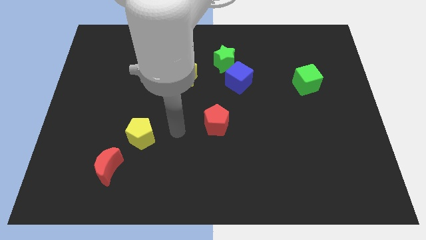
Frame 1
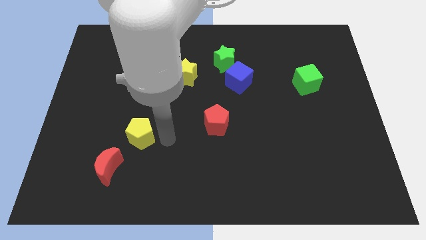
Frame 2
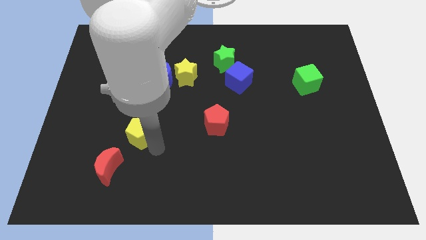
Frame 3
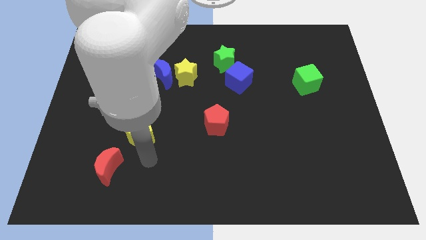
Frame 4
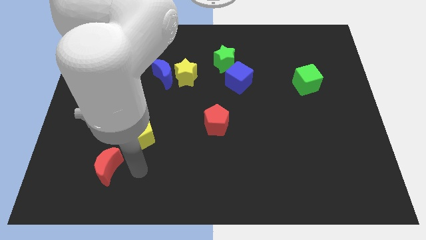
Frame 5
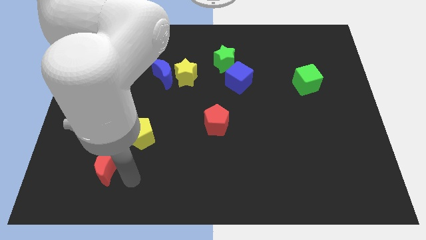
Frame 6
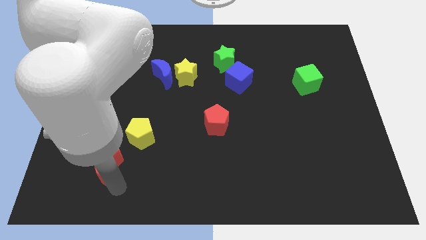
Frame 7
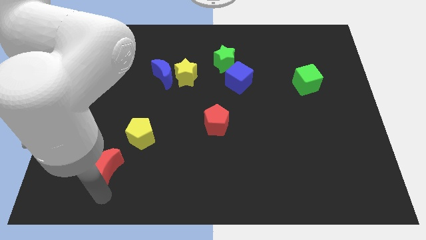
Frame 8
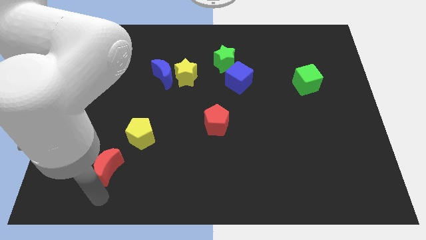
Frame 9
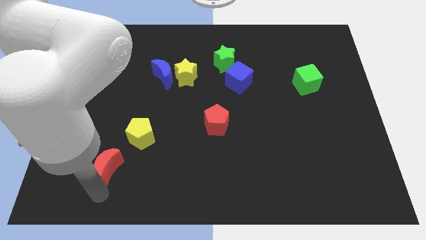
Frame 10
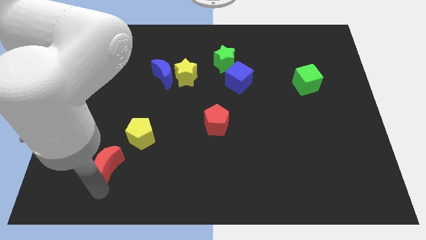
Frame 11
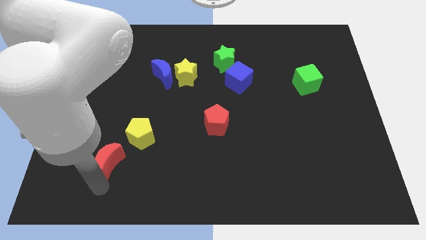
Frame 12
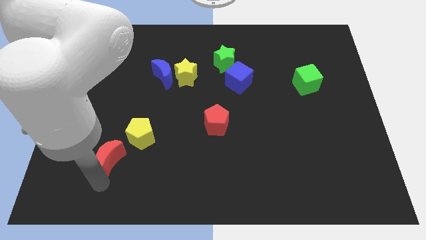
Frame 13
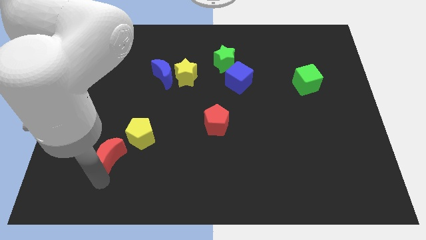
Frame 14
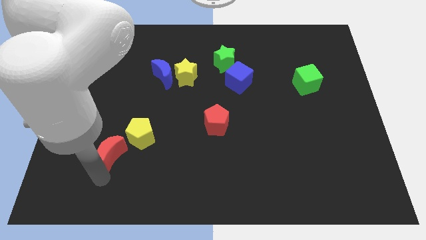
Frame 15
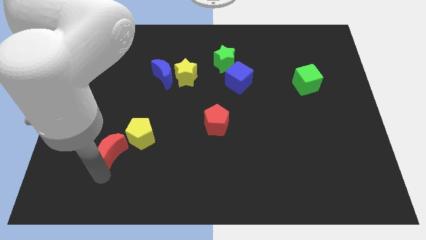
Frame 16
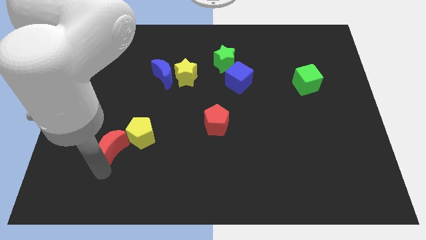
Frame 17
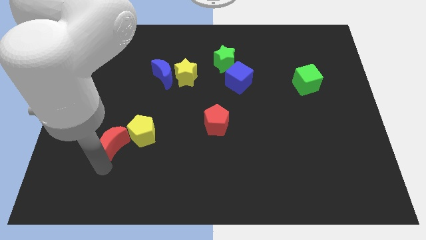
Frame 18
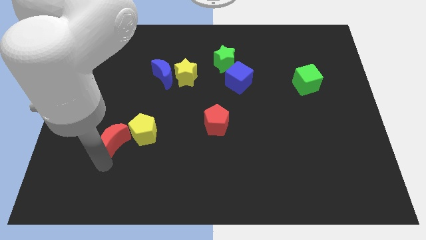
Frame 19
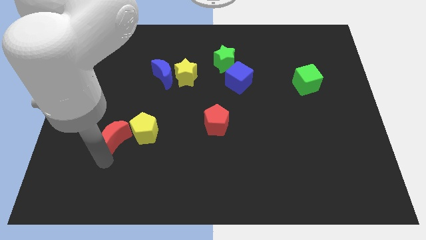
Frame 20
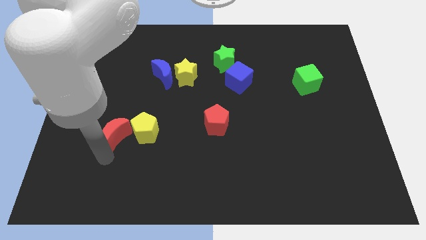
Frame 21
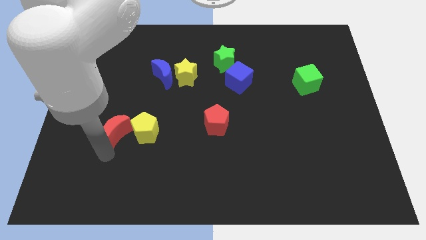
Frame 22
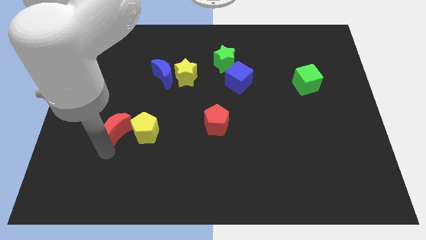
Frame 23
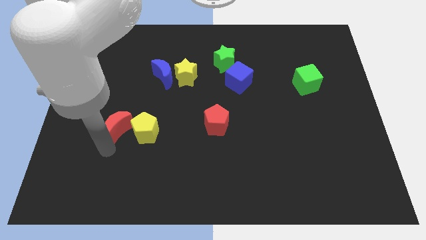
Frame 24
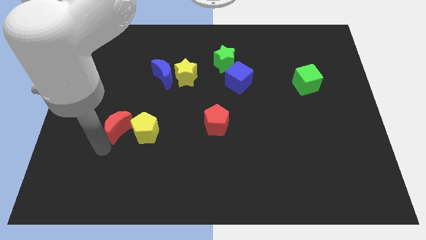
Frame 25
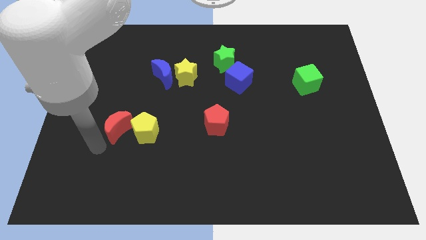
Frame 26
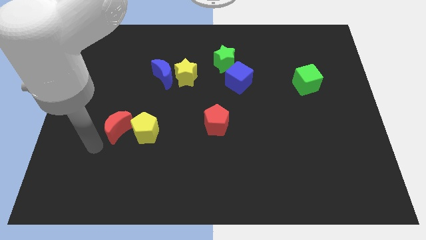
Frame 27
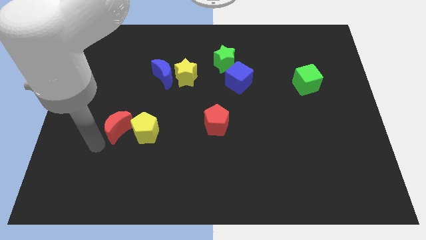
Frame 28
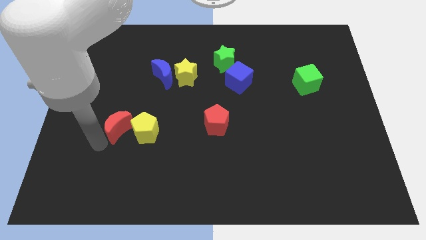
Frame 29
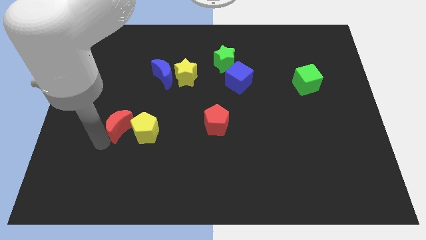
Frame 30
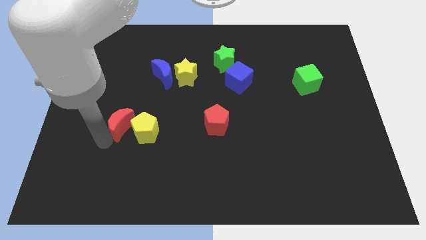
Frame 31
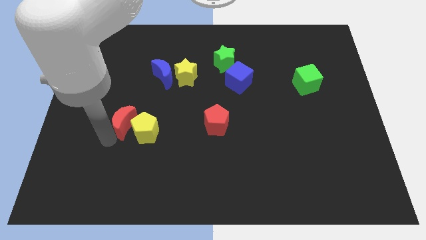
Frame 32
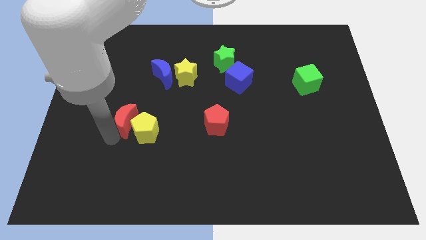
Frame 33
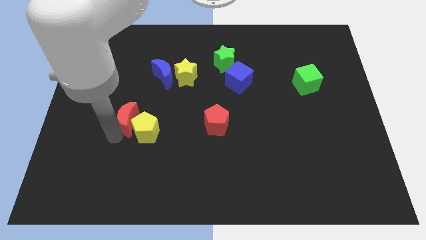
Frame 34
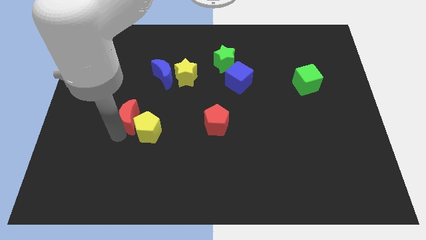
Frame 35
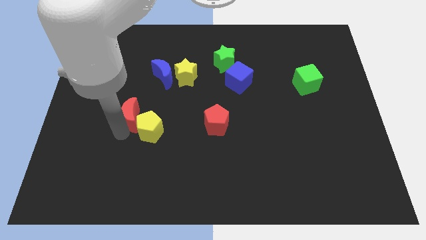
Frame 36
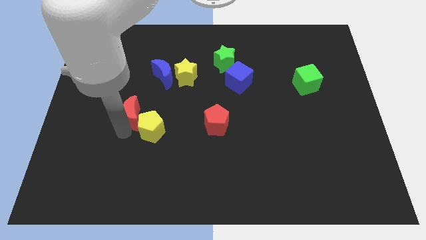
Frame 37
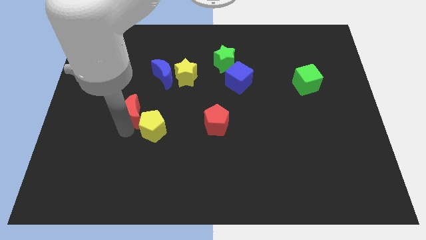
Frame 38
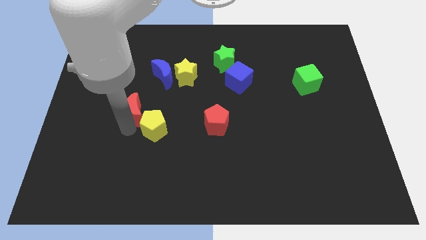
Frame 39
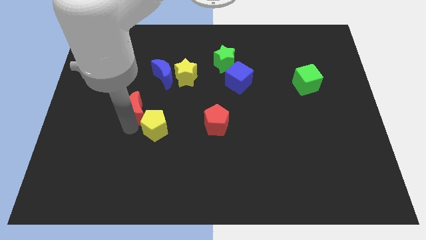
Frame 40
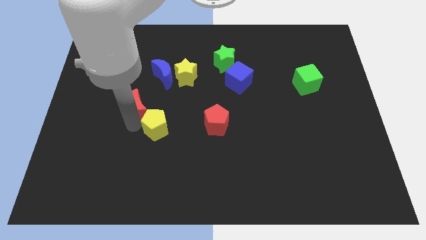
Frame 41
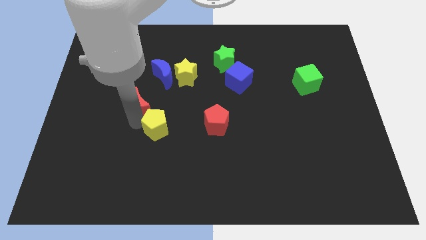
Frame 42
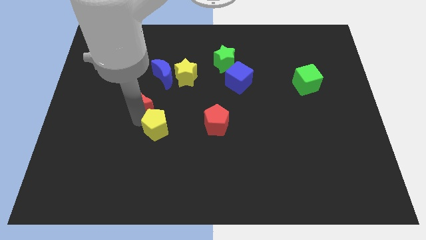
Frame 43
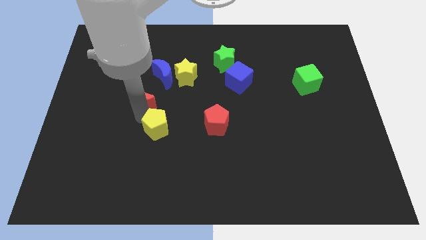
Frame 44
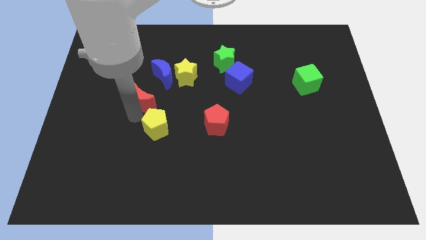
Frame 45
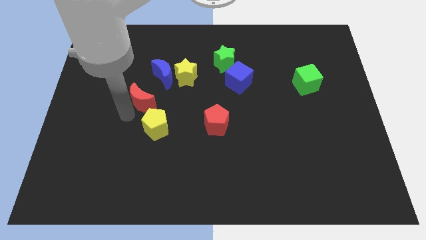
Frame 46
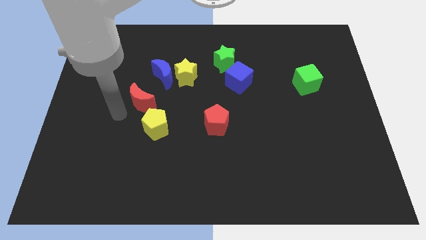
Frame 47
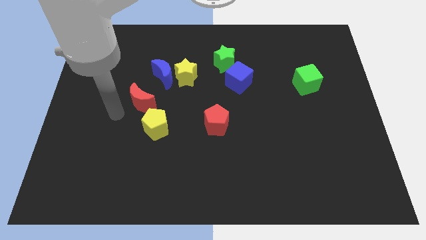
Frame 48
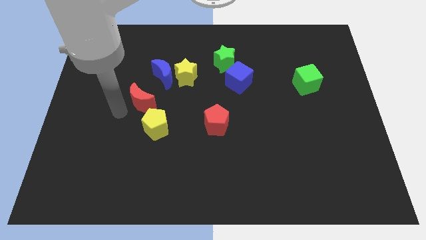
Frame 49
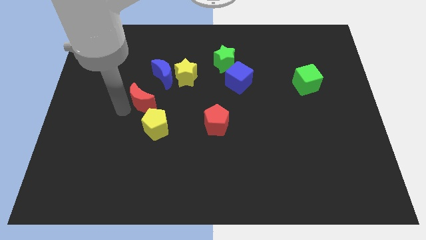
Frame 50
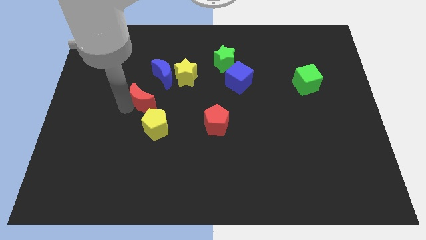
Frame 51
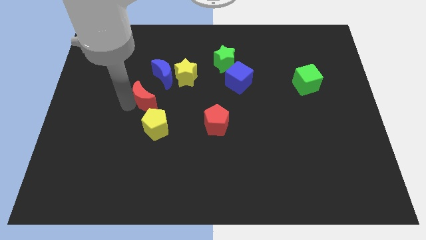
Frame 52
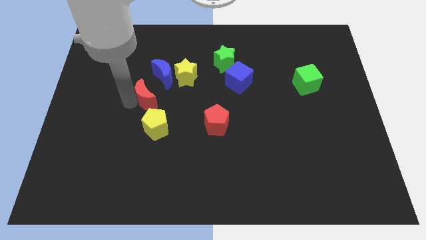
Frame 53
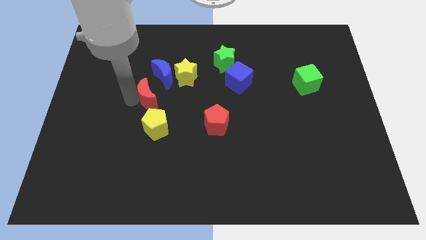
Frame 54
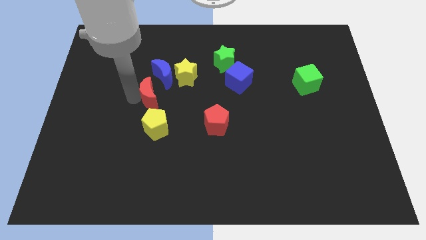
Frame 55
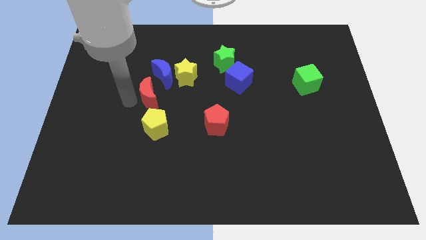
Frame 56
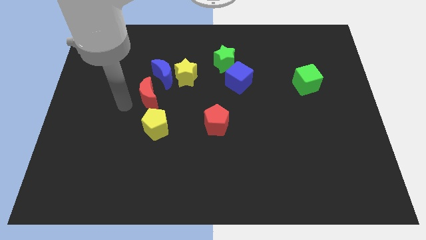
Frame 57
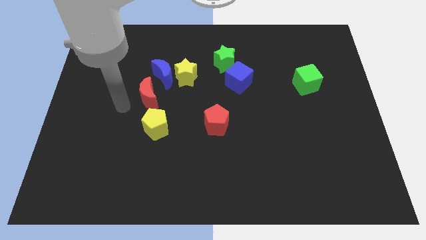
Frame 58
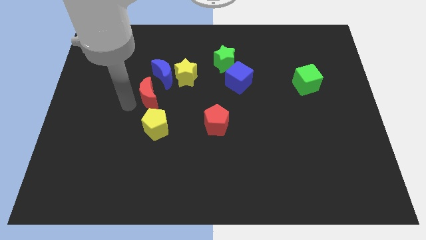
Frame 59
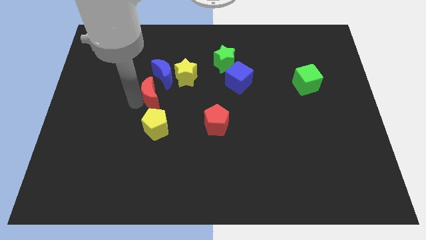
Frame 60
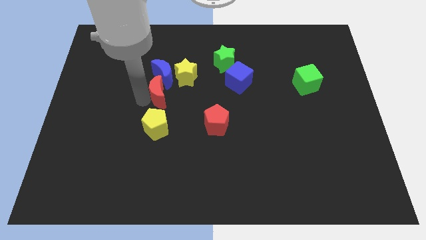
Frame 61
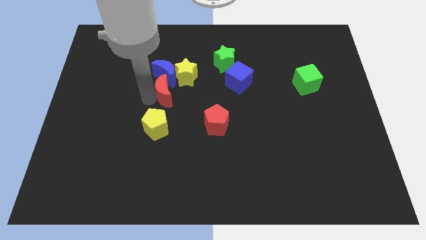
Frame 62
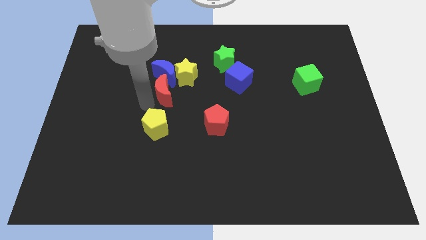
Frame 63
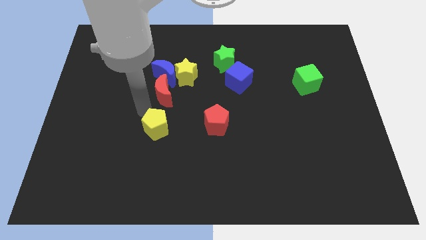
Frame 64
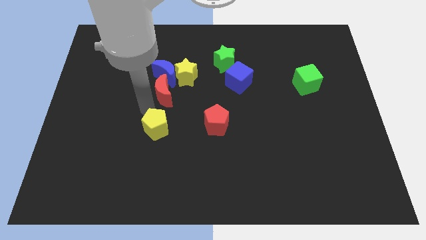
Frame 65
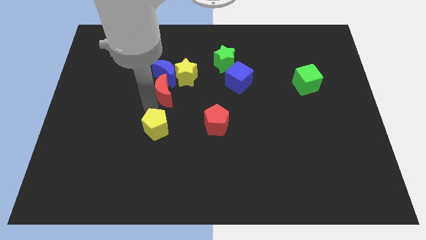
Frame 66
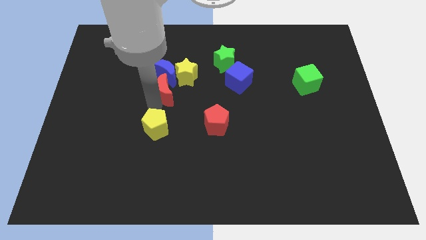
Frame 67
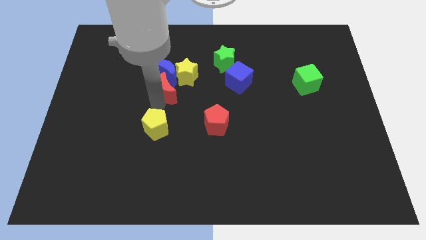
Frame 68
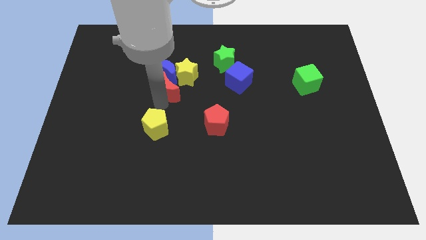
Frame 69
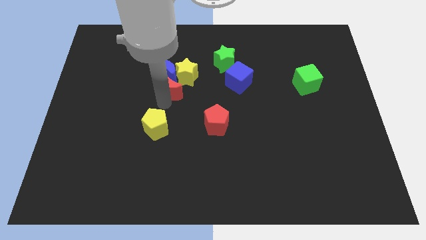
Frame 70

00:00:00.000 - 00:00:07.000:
slide the red moon towards the yellow star
